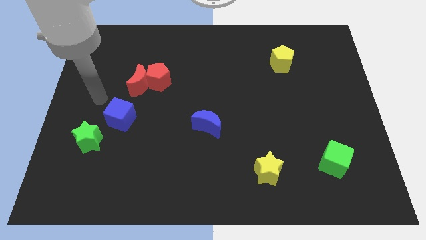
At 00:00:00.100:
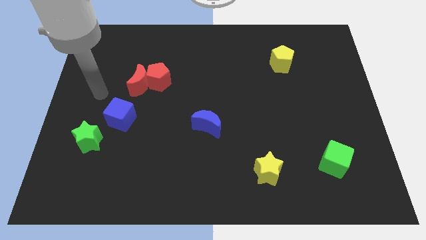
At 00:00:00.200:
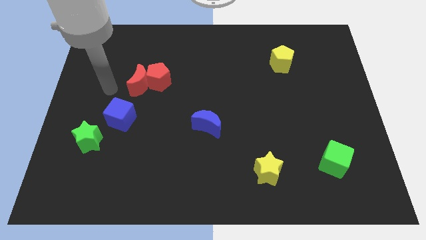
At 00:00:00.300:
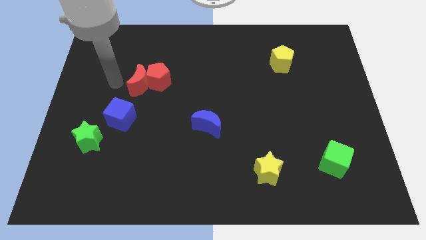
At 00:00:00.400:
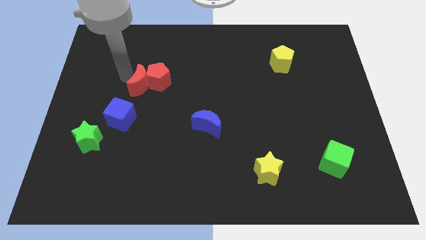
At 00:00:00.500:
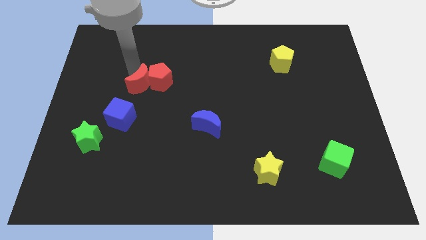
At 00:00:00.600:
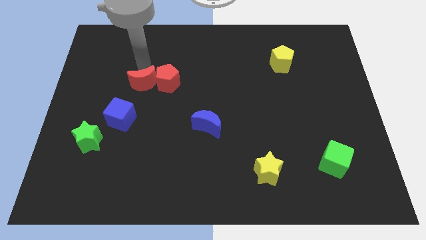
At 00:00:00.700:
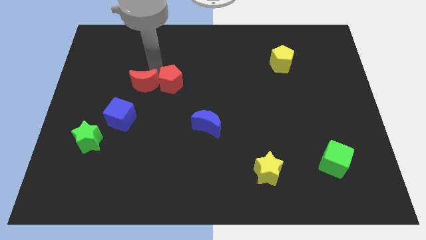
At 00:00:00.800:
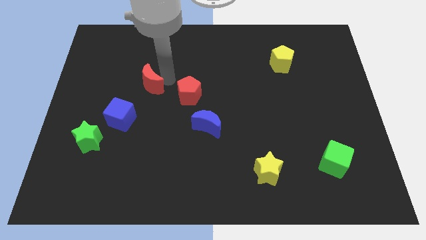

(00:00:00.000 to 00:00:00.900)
separate the red moon from the red pentagon

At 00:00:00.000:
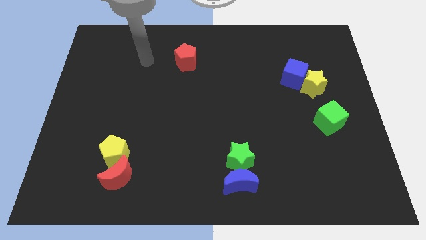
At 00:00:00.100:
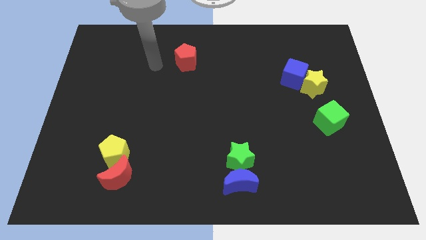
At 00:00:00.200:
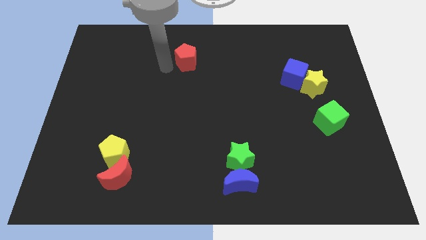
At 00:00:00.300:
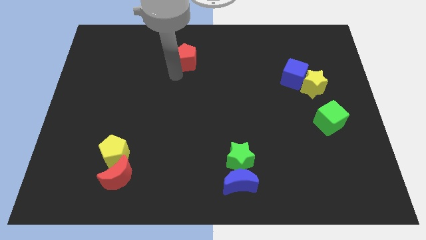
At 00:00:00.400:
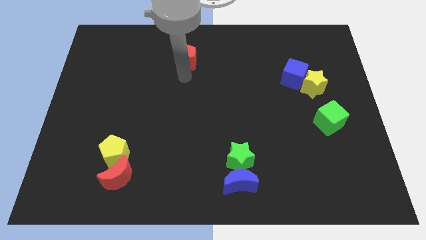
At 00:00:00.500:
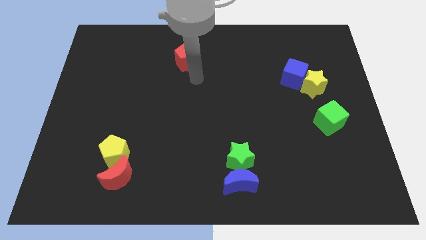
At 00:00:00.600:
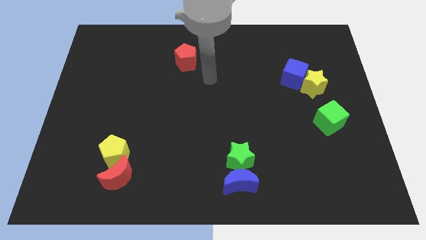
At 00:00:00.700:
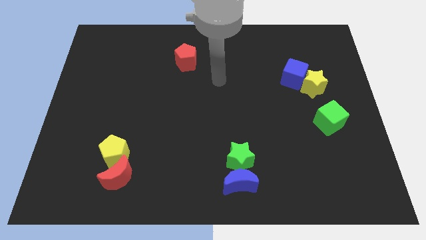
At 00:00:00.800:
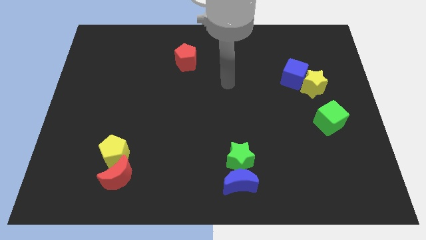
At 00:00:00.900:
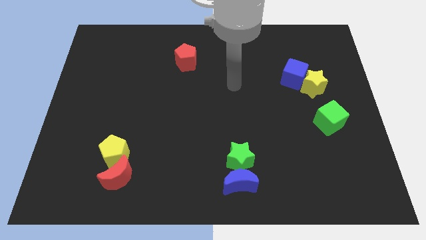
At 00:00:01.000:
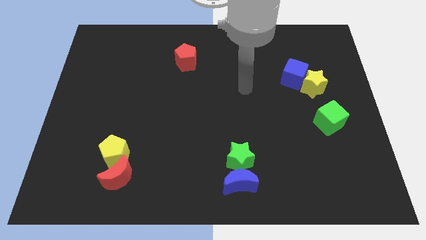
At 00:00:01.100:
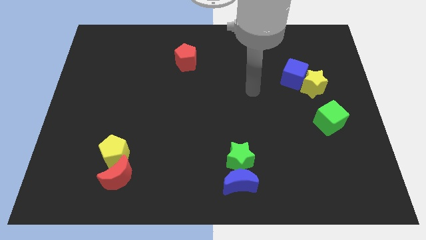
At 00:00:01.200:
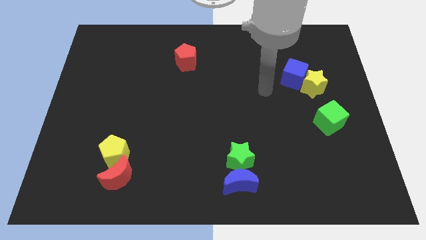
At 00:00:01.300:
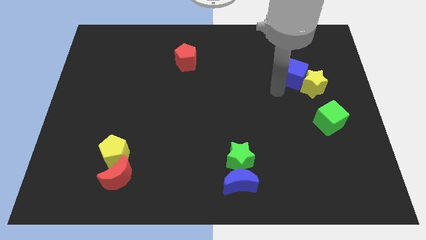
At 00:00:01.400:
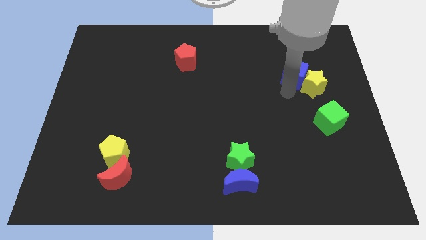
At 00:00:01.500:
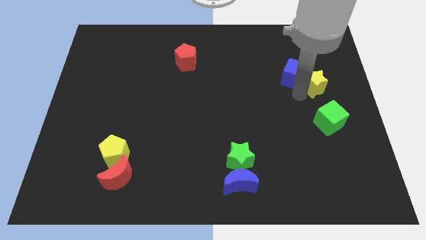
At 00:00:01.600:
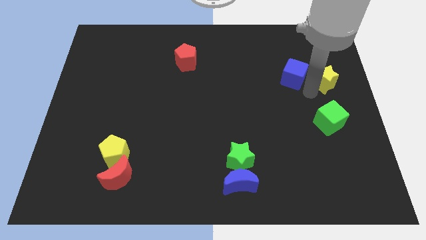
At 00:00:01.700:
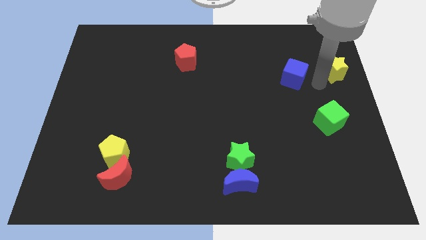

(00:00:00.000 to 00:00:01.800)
move the blue cube away from the yellow star

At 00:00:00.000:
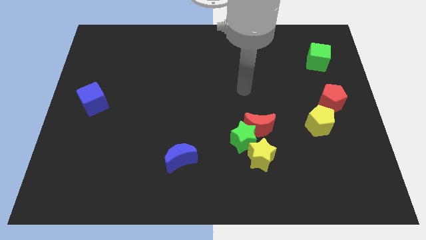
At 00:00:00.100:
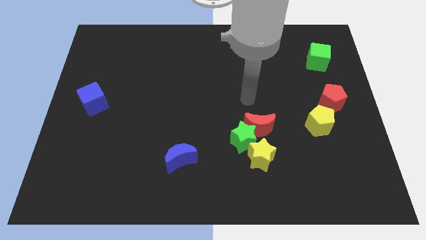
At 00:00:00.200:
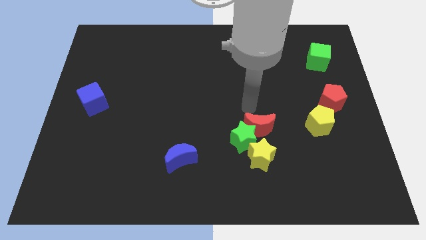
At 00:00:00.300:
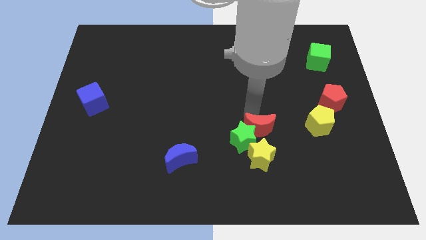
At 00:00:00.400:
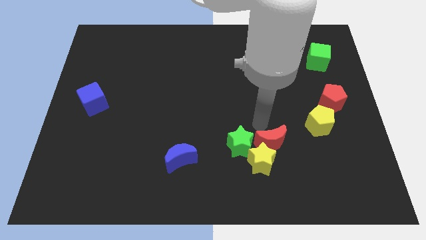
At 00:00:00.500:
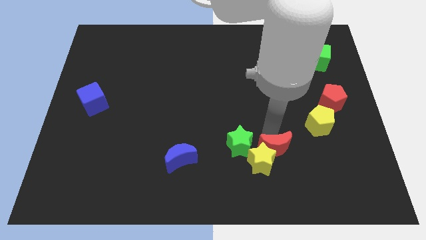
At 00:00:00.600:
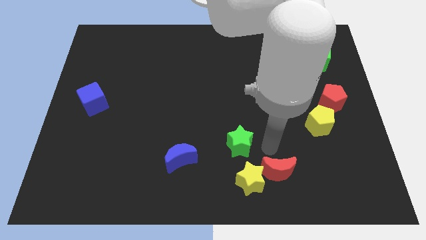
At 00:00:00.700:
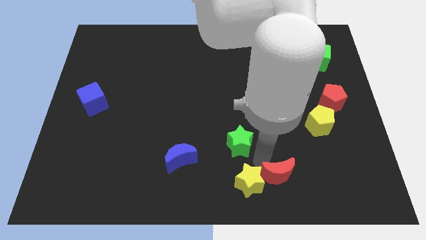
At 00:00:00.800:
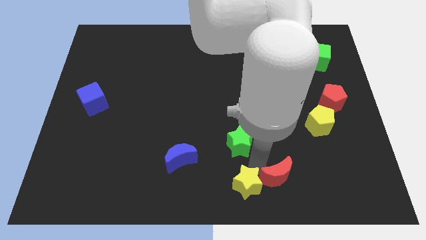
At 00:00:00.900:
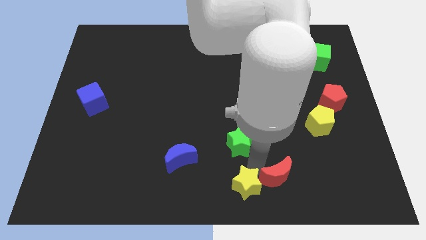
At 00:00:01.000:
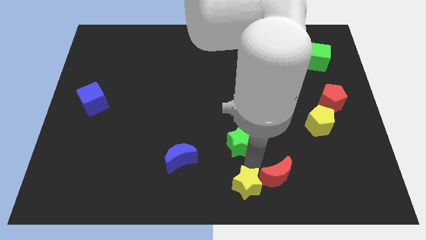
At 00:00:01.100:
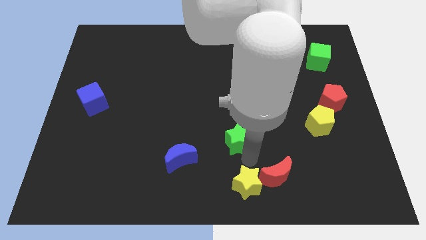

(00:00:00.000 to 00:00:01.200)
pull the green star apart from the red moon and yellow star

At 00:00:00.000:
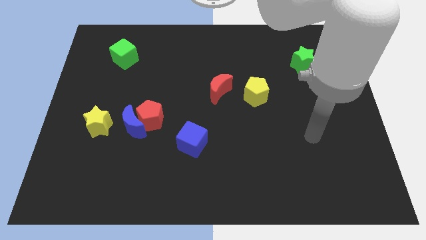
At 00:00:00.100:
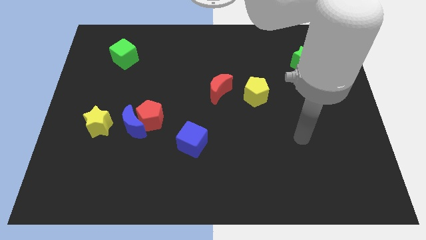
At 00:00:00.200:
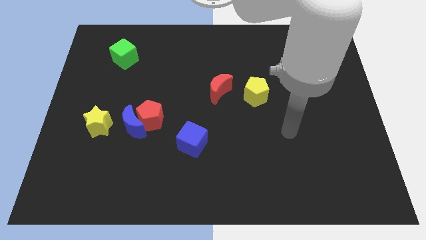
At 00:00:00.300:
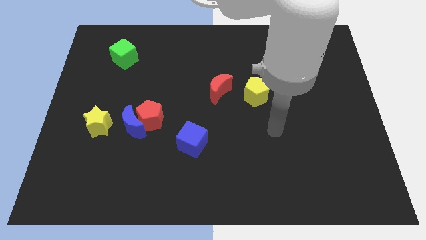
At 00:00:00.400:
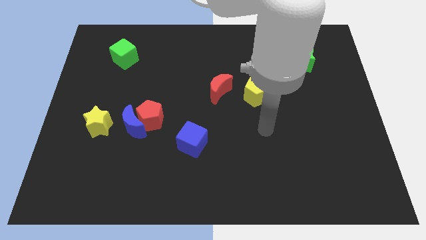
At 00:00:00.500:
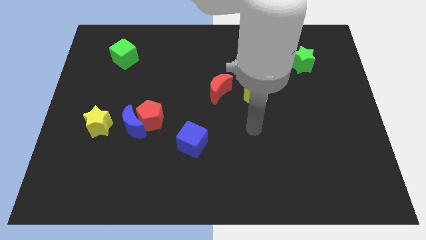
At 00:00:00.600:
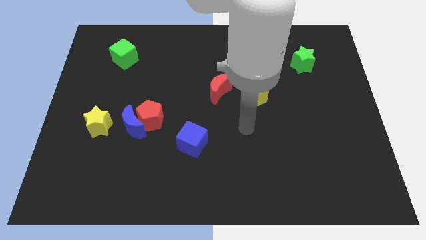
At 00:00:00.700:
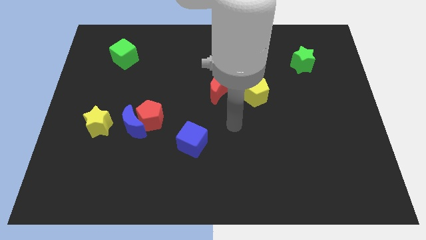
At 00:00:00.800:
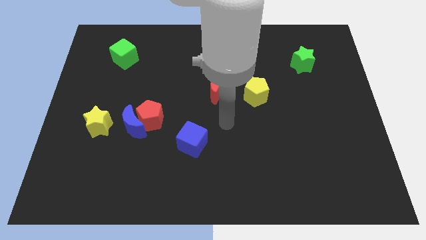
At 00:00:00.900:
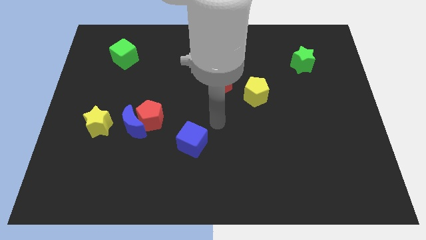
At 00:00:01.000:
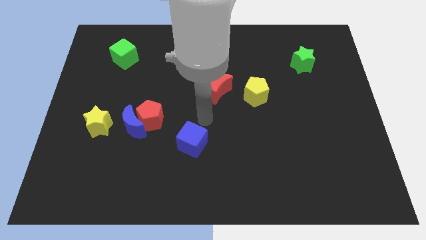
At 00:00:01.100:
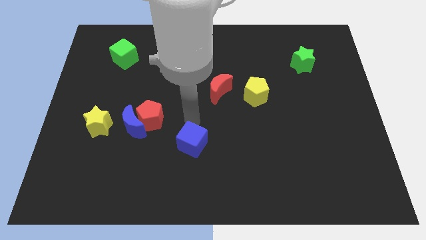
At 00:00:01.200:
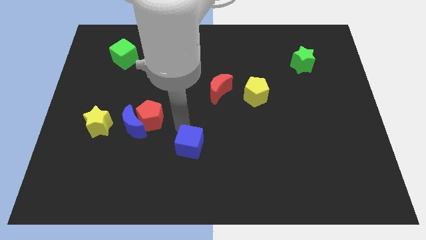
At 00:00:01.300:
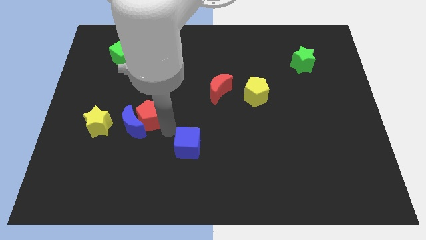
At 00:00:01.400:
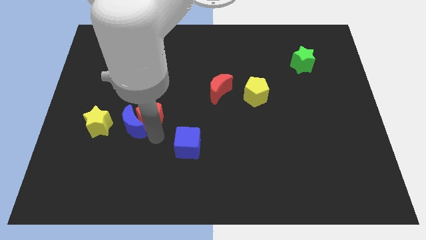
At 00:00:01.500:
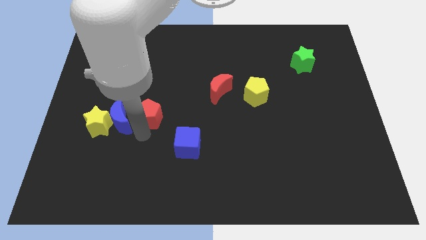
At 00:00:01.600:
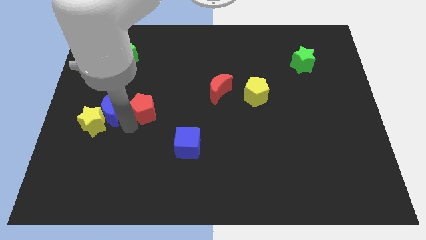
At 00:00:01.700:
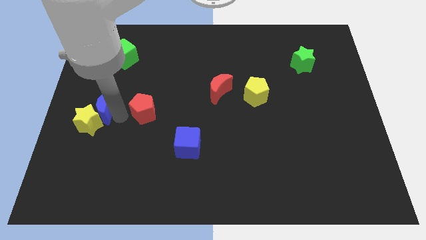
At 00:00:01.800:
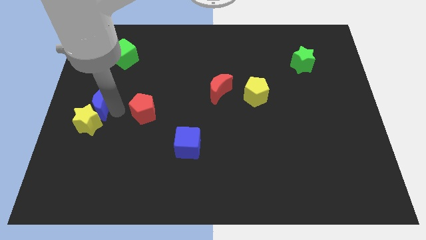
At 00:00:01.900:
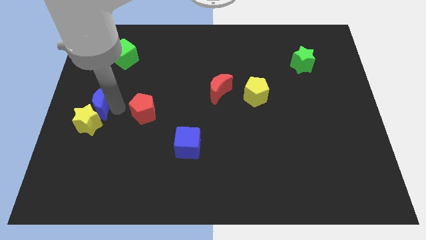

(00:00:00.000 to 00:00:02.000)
separate the red pentagon from the blue moon

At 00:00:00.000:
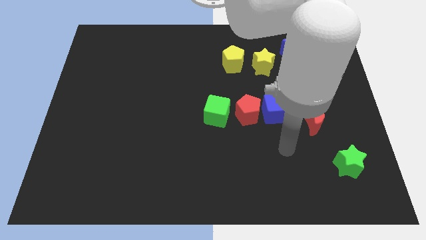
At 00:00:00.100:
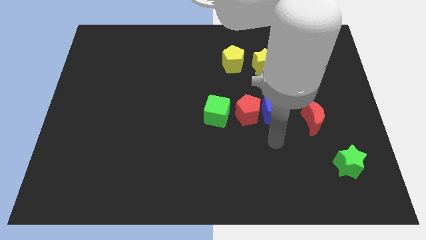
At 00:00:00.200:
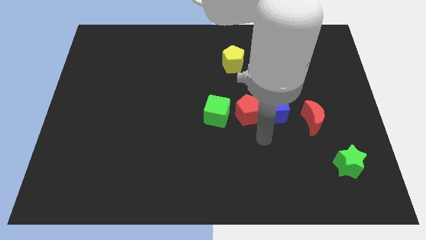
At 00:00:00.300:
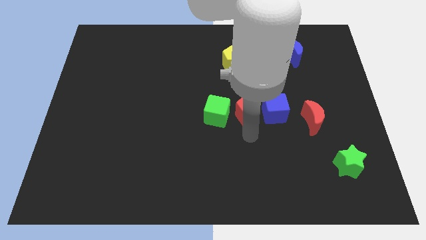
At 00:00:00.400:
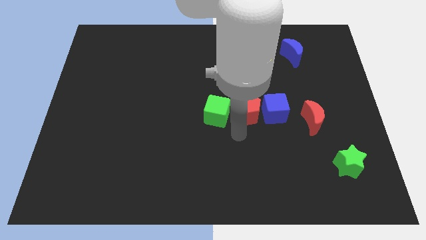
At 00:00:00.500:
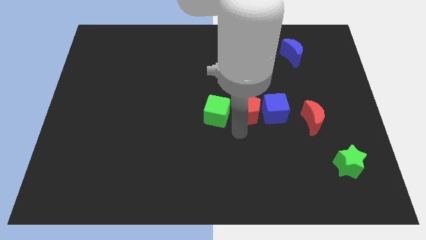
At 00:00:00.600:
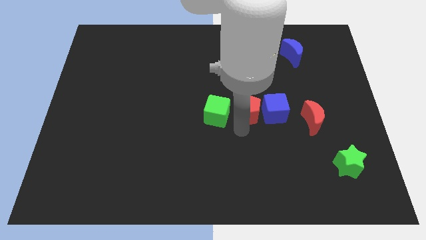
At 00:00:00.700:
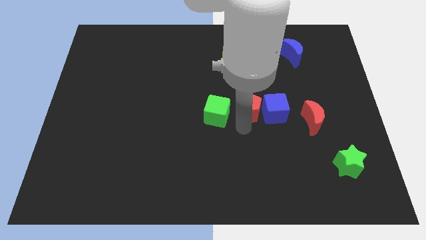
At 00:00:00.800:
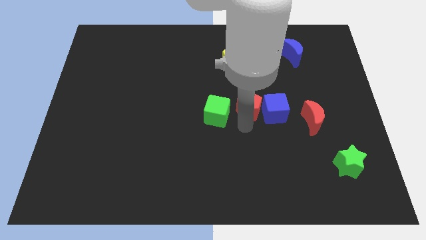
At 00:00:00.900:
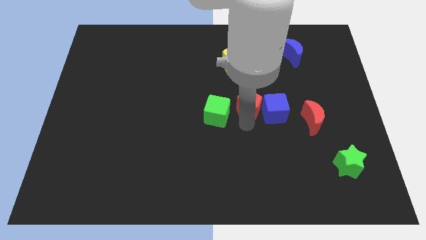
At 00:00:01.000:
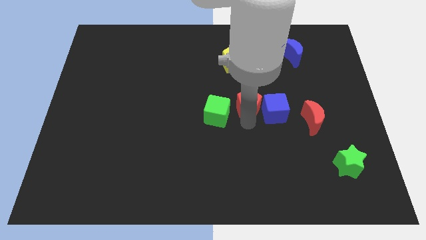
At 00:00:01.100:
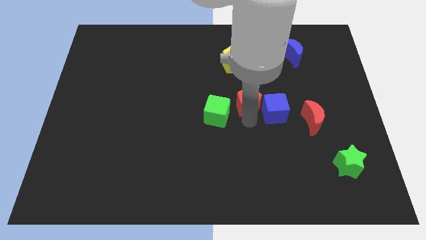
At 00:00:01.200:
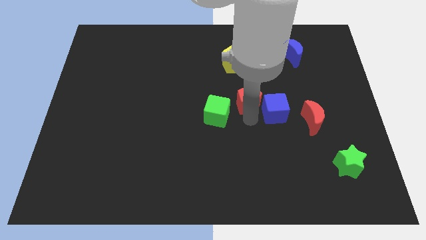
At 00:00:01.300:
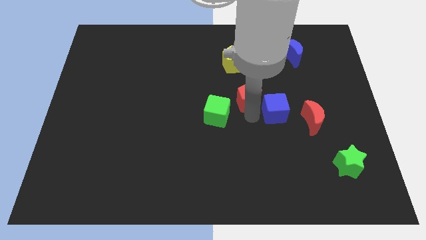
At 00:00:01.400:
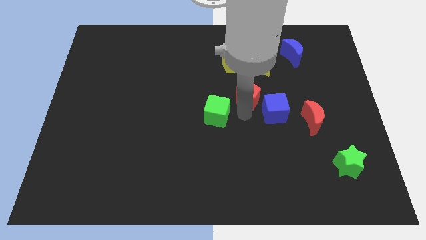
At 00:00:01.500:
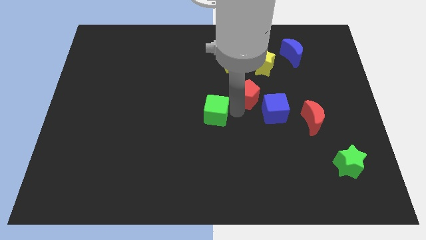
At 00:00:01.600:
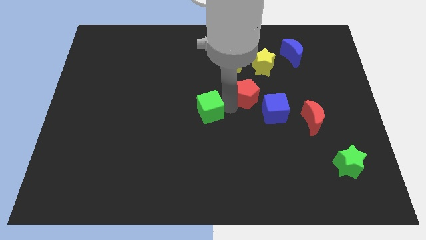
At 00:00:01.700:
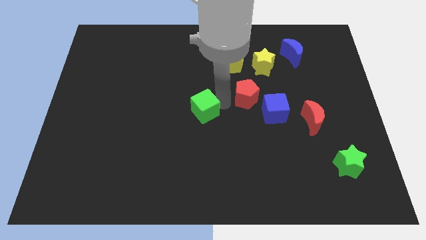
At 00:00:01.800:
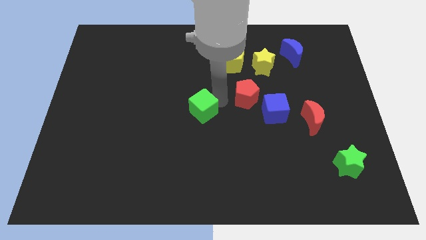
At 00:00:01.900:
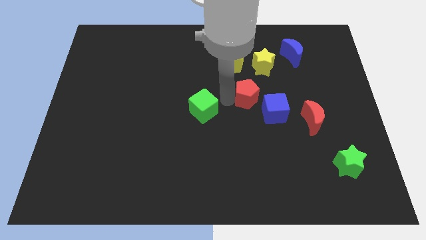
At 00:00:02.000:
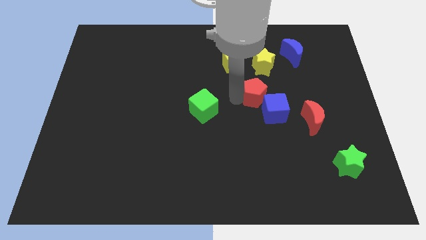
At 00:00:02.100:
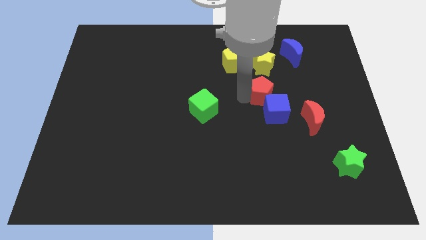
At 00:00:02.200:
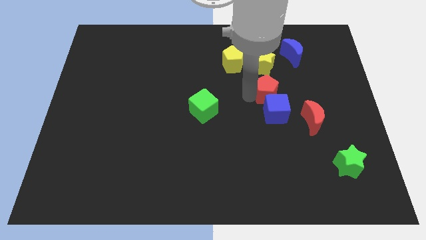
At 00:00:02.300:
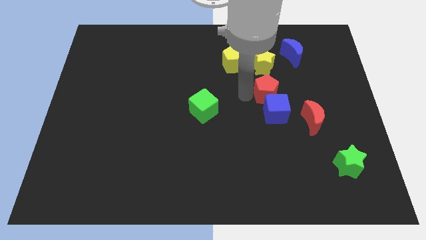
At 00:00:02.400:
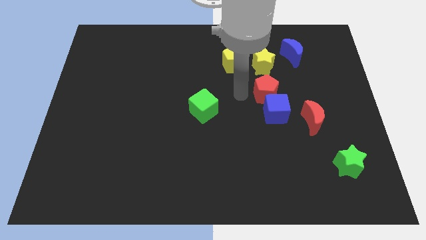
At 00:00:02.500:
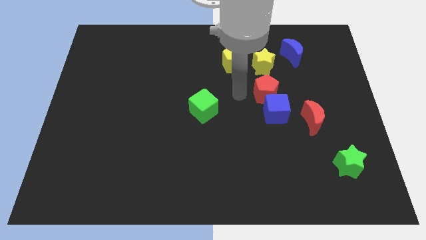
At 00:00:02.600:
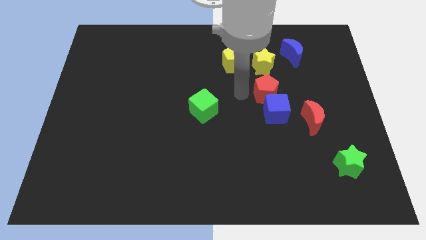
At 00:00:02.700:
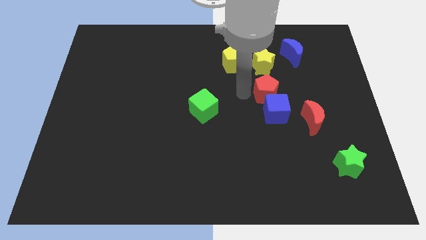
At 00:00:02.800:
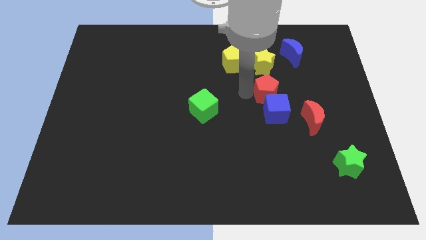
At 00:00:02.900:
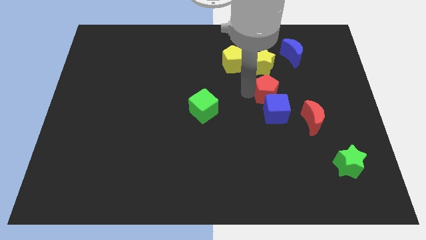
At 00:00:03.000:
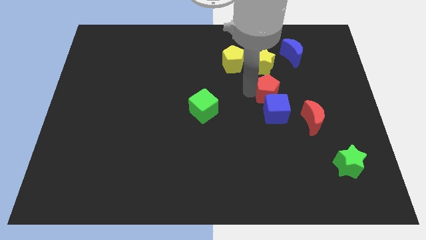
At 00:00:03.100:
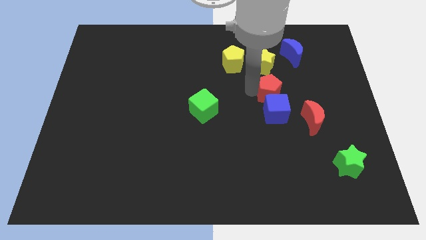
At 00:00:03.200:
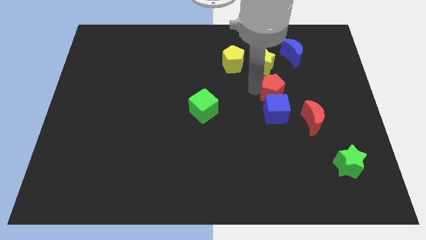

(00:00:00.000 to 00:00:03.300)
move the red pentagon away from the blue cube and green cube
